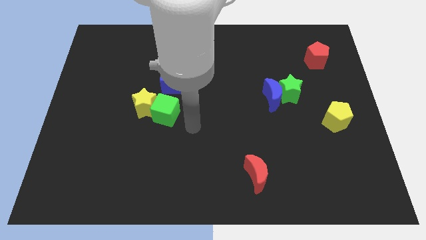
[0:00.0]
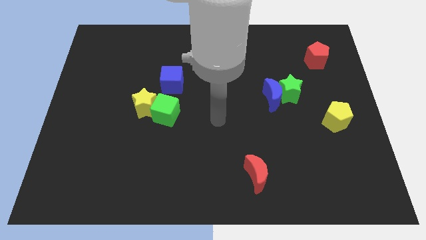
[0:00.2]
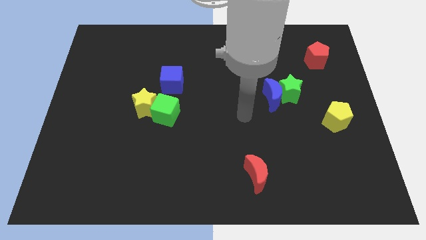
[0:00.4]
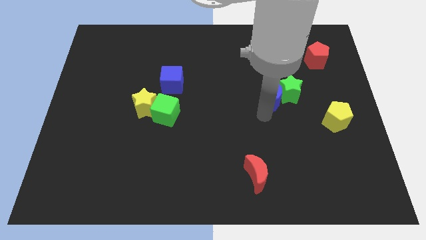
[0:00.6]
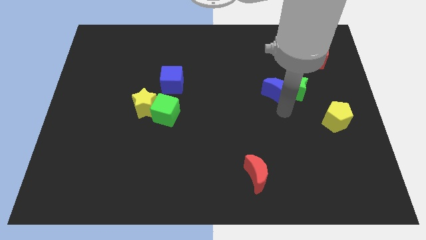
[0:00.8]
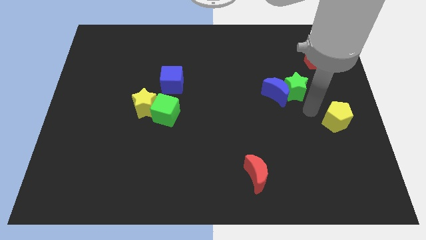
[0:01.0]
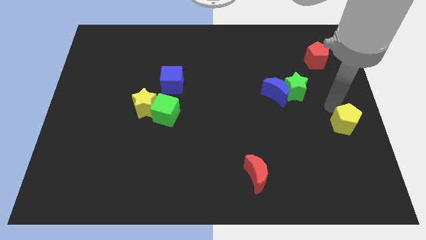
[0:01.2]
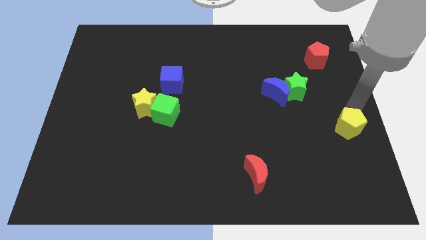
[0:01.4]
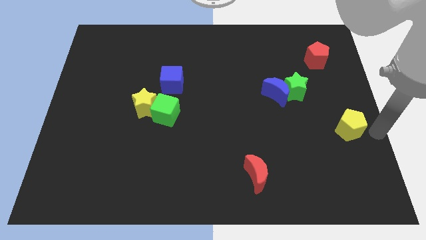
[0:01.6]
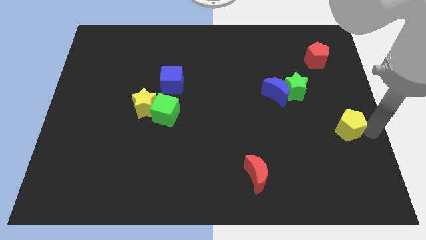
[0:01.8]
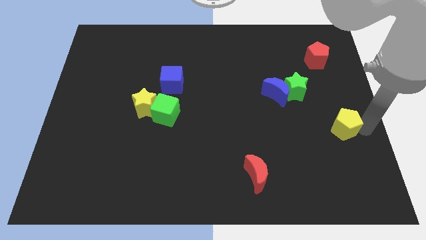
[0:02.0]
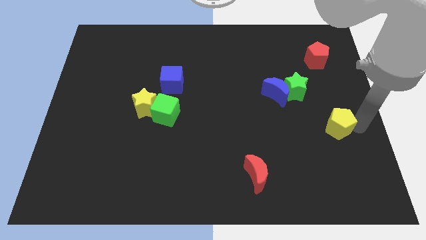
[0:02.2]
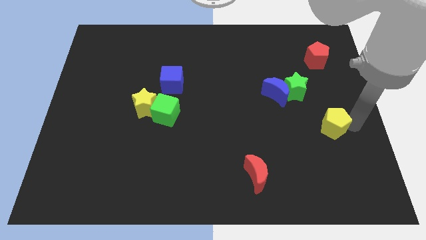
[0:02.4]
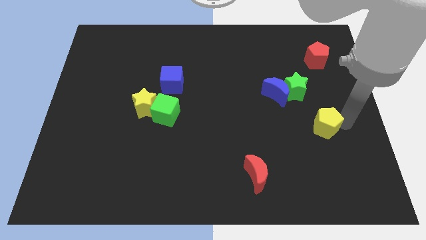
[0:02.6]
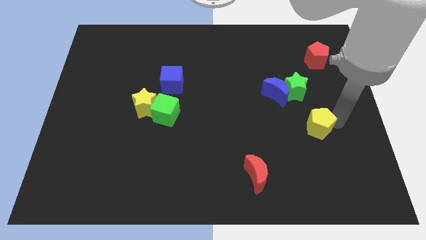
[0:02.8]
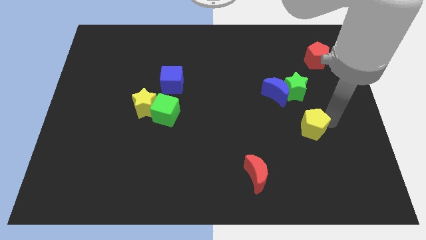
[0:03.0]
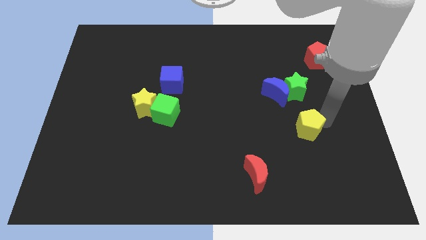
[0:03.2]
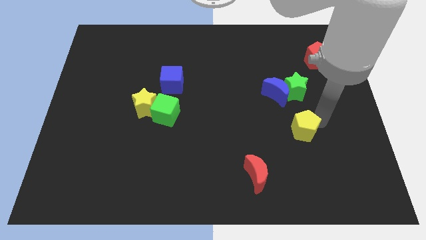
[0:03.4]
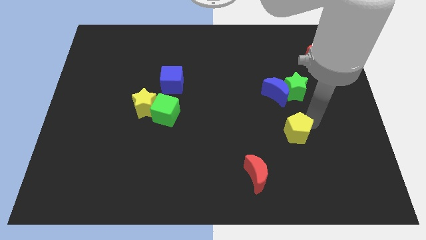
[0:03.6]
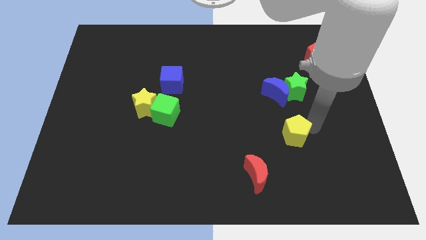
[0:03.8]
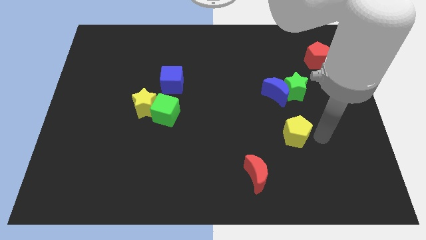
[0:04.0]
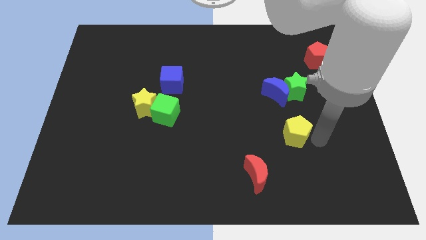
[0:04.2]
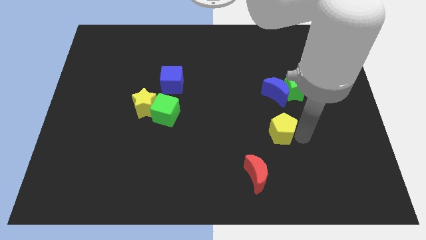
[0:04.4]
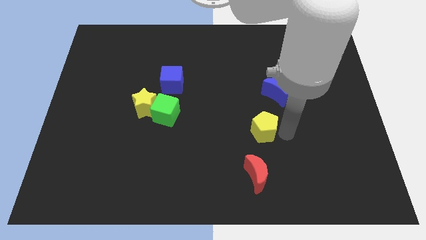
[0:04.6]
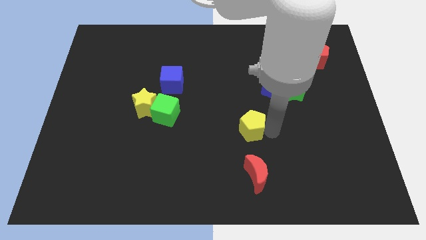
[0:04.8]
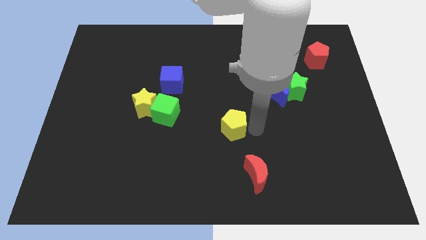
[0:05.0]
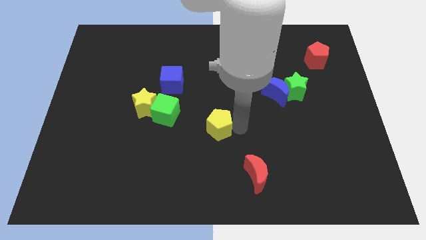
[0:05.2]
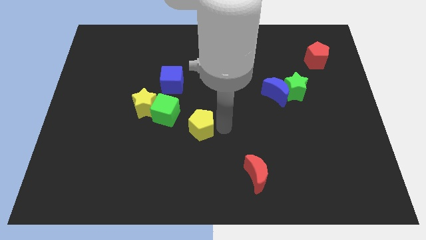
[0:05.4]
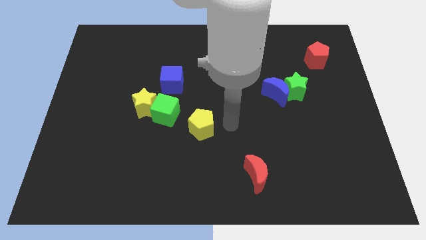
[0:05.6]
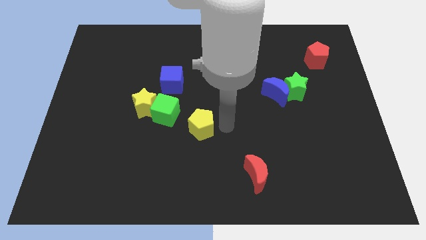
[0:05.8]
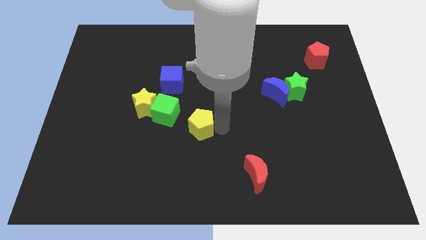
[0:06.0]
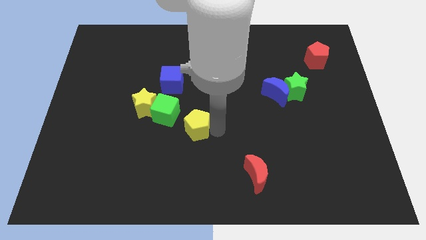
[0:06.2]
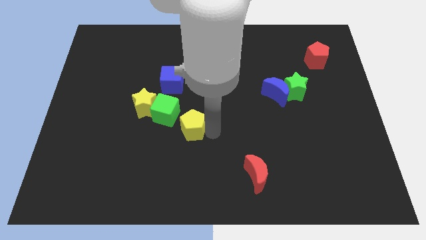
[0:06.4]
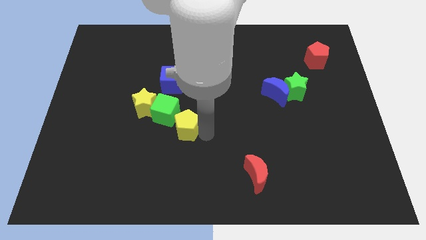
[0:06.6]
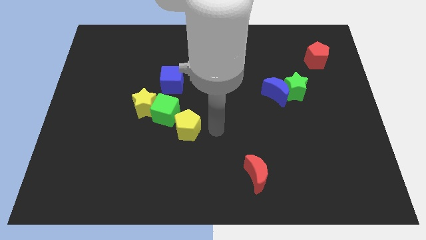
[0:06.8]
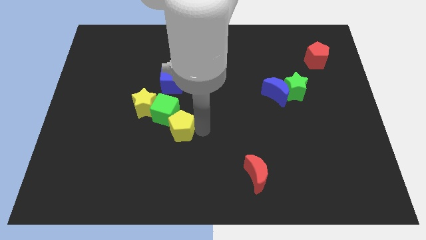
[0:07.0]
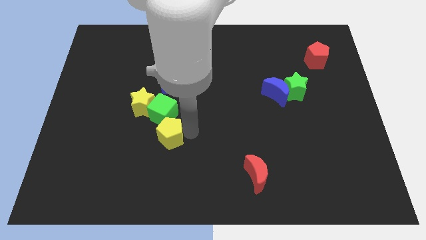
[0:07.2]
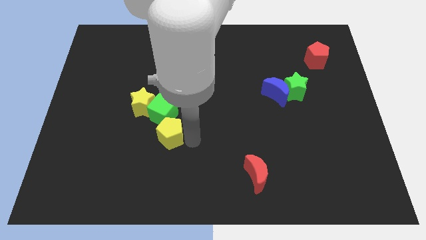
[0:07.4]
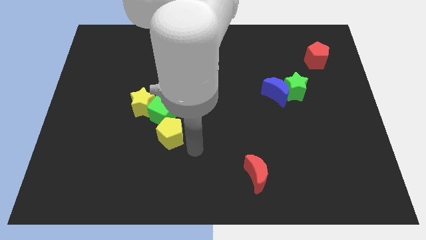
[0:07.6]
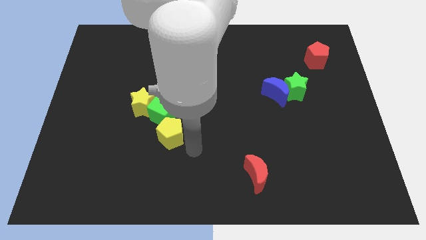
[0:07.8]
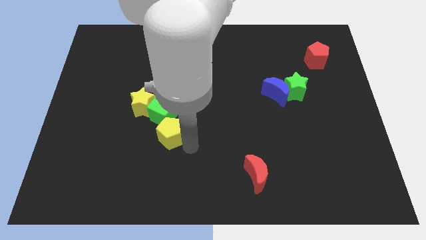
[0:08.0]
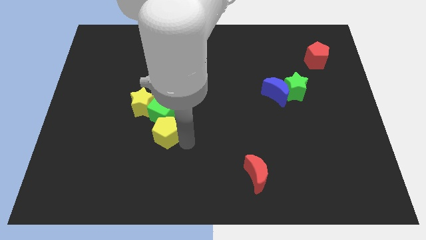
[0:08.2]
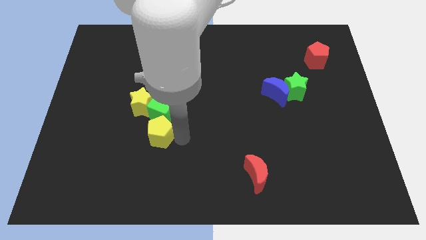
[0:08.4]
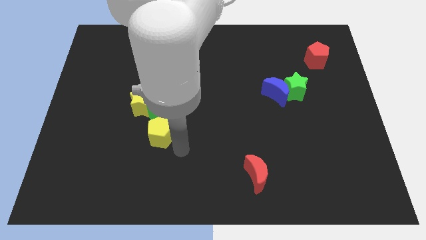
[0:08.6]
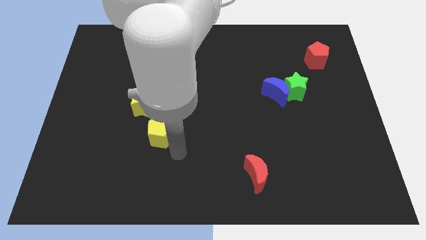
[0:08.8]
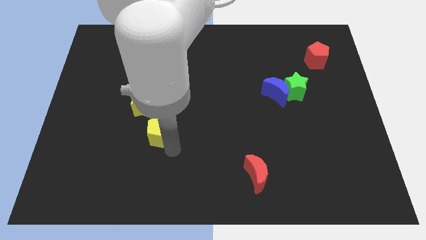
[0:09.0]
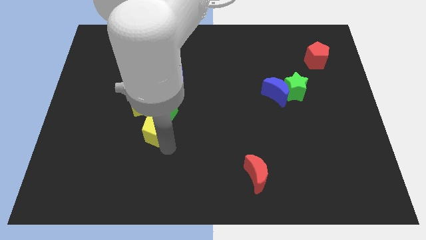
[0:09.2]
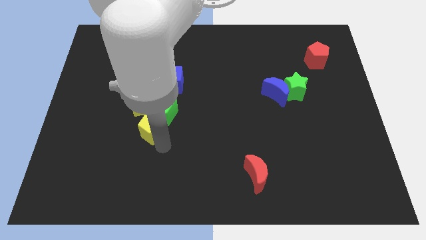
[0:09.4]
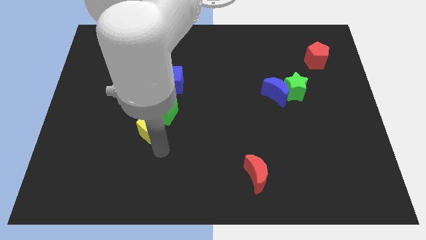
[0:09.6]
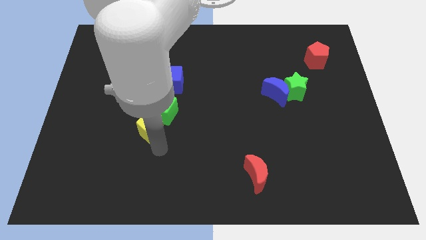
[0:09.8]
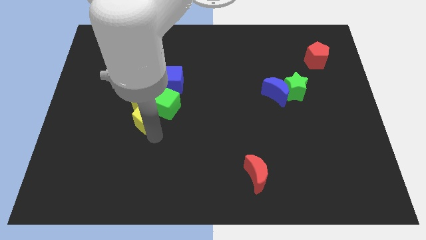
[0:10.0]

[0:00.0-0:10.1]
slide the yellow pentagon close to the yellow star

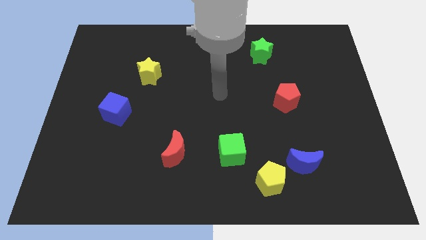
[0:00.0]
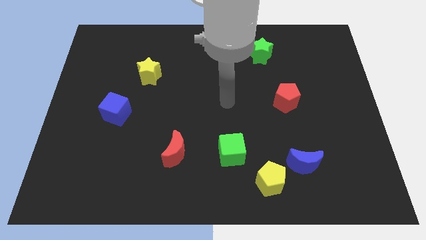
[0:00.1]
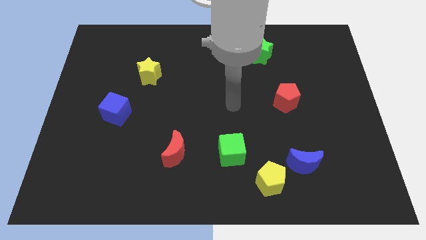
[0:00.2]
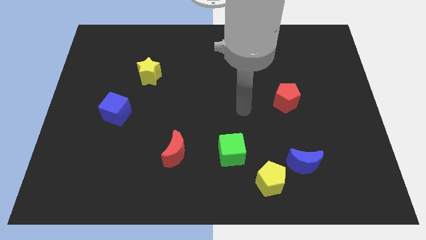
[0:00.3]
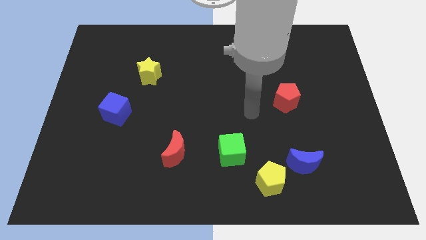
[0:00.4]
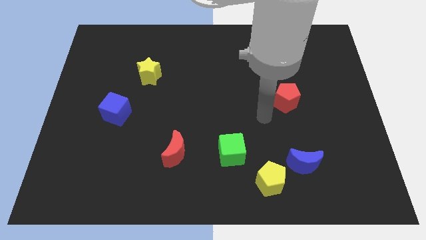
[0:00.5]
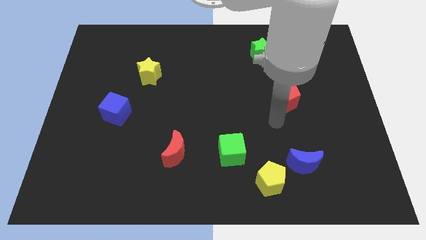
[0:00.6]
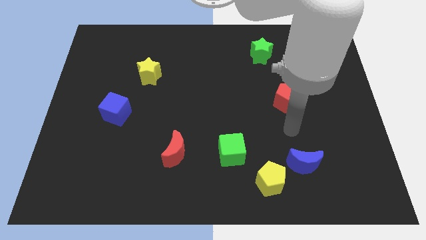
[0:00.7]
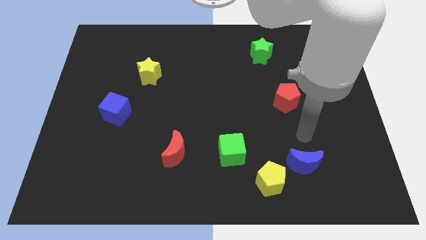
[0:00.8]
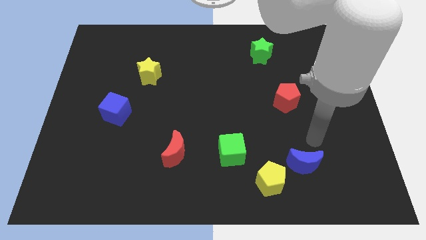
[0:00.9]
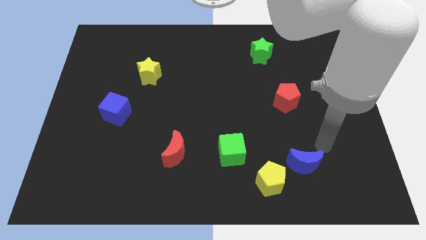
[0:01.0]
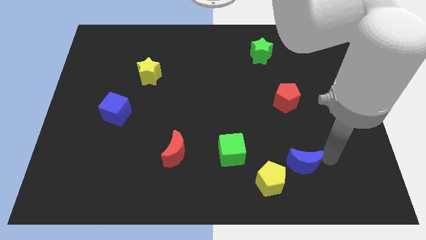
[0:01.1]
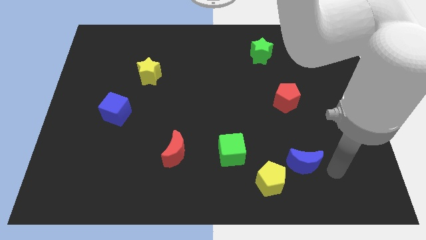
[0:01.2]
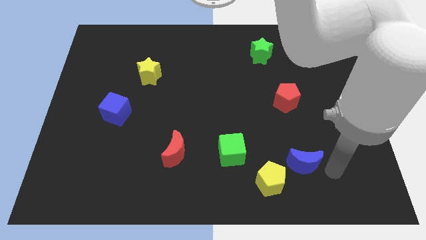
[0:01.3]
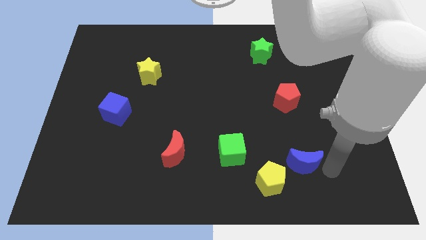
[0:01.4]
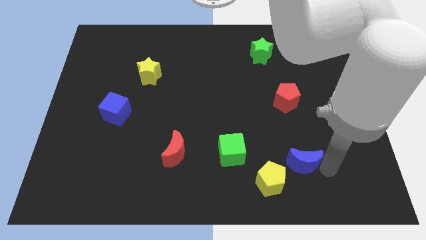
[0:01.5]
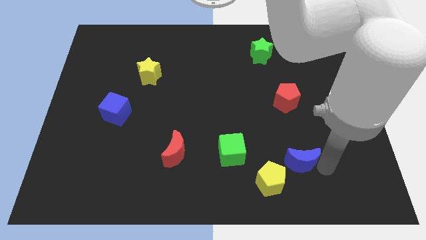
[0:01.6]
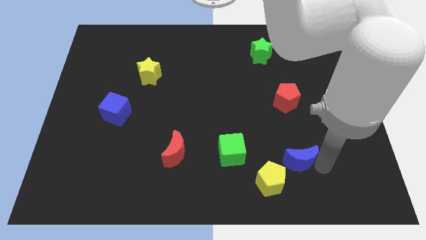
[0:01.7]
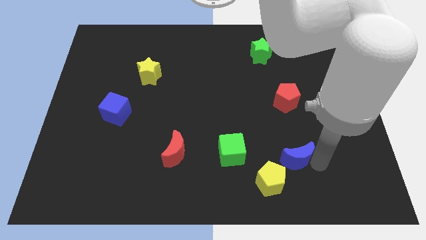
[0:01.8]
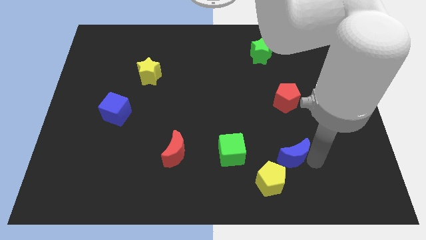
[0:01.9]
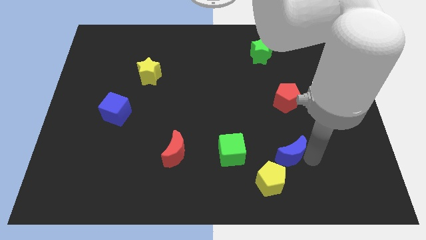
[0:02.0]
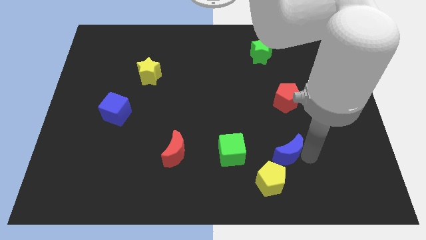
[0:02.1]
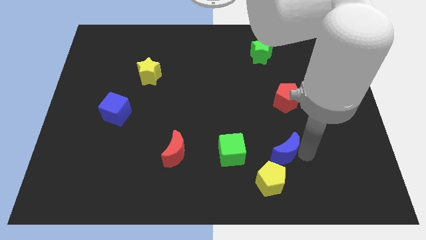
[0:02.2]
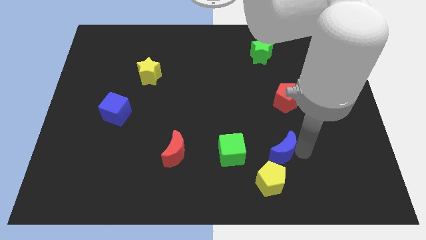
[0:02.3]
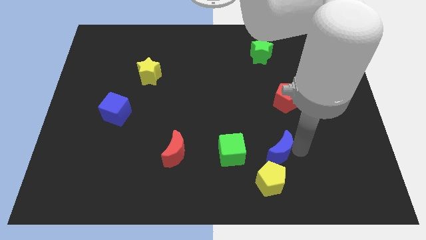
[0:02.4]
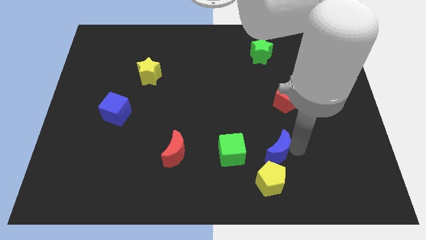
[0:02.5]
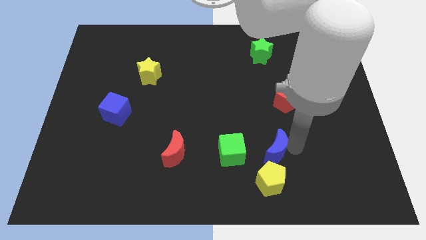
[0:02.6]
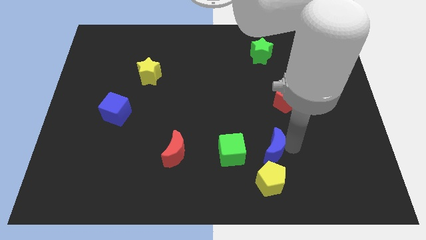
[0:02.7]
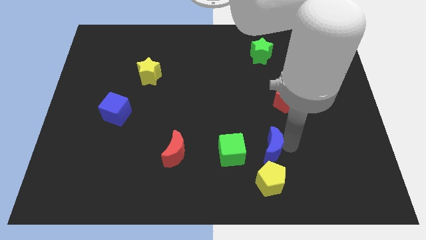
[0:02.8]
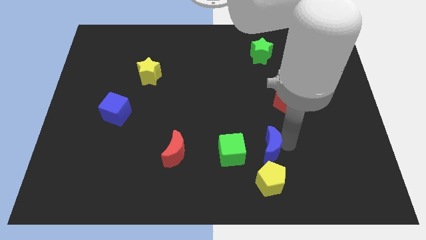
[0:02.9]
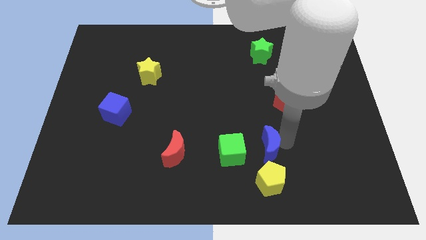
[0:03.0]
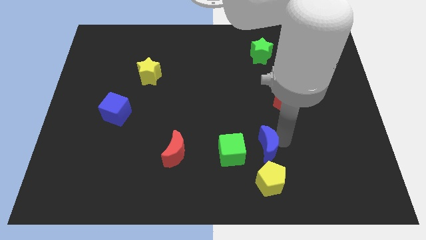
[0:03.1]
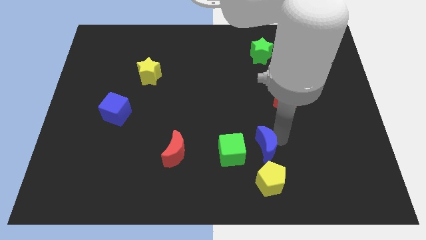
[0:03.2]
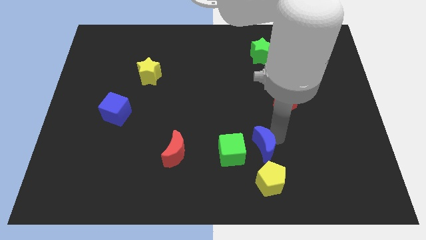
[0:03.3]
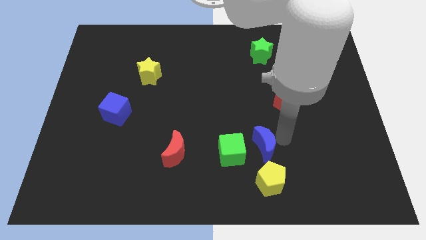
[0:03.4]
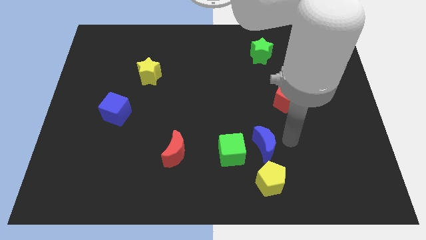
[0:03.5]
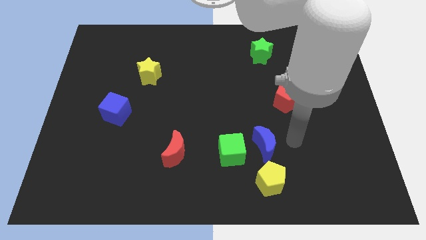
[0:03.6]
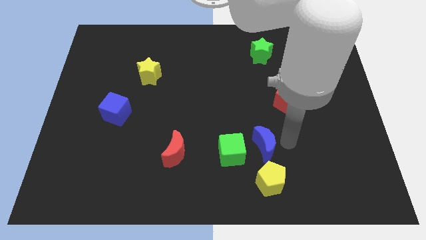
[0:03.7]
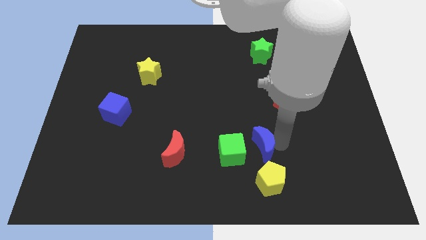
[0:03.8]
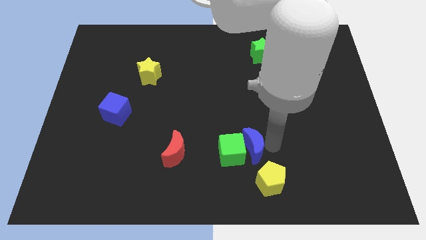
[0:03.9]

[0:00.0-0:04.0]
push the blue moon next to the green cube
